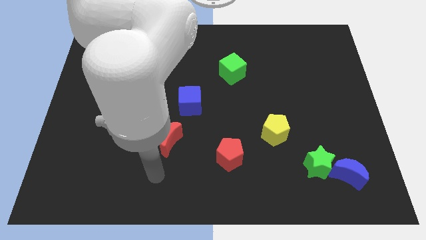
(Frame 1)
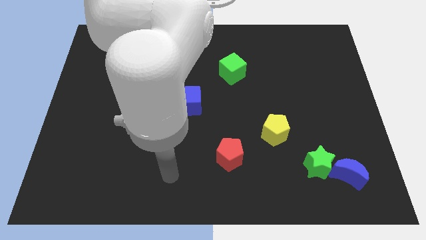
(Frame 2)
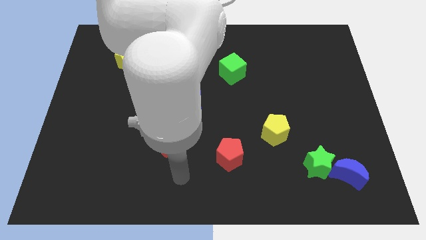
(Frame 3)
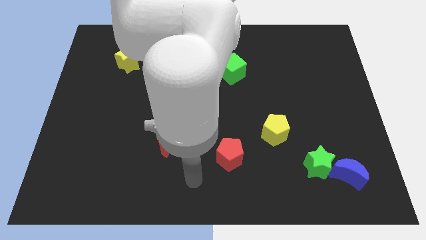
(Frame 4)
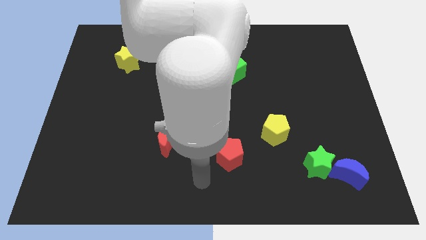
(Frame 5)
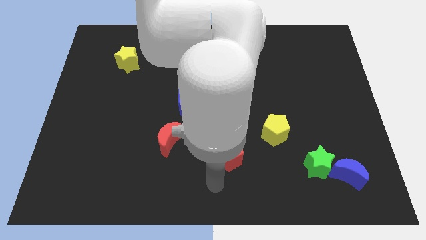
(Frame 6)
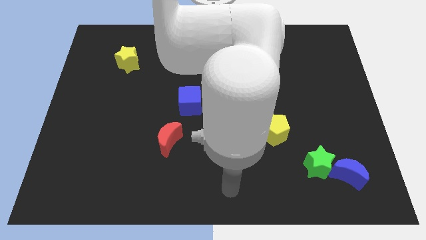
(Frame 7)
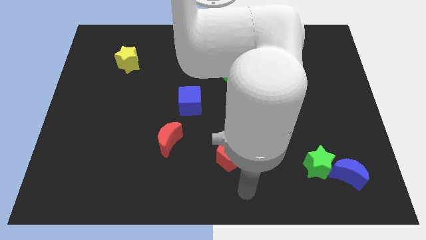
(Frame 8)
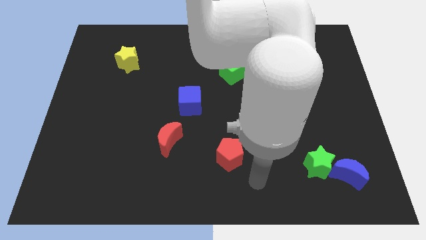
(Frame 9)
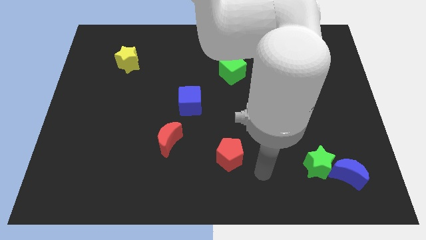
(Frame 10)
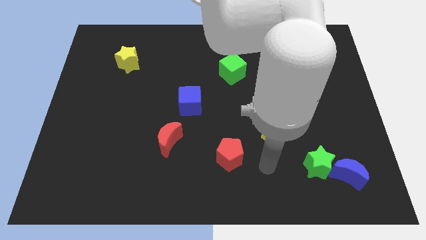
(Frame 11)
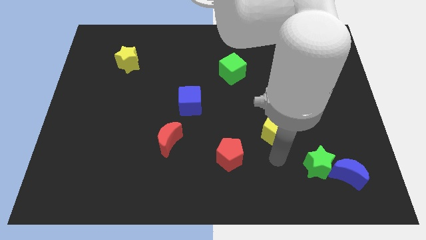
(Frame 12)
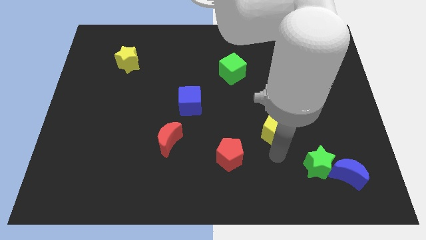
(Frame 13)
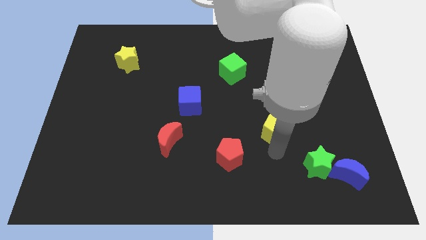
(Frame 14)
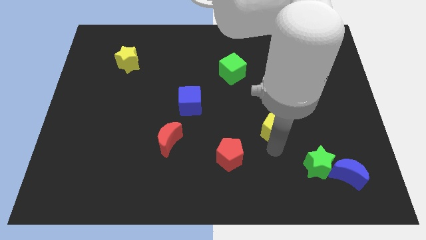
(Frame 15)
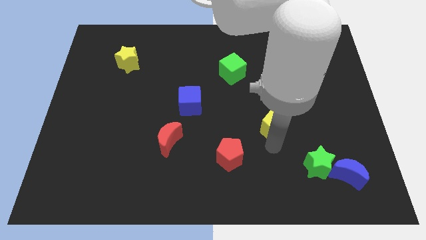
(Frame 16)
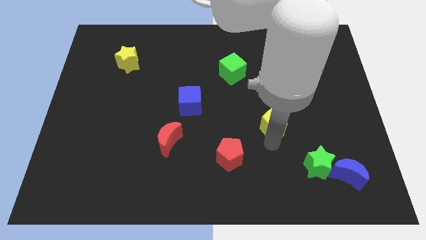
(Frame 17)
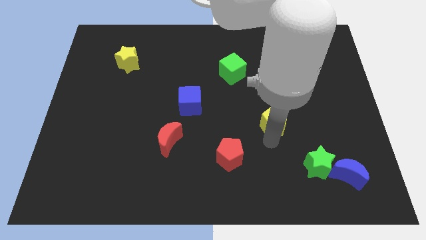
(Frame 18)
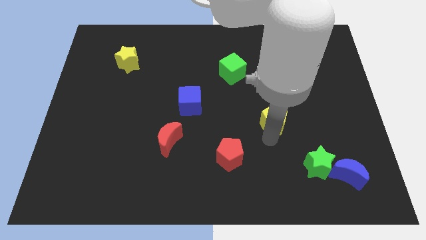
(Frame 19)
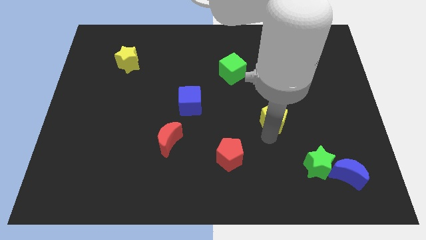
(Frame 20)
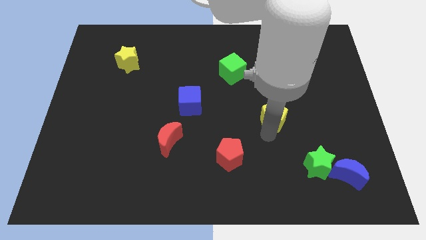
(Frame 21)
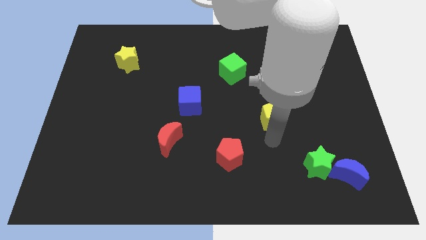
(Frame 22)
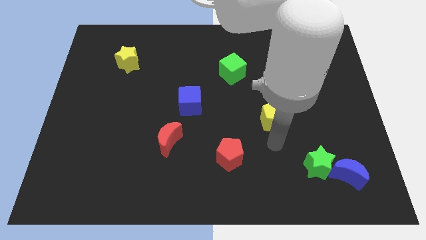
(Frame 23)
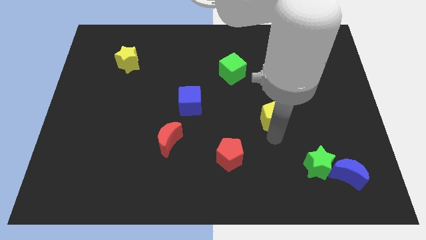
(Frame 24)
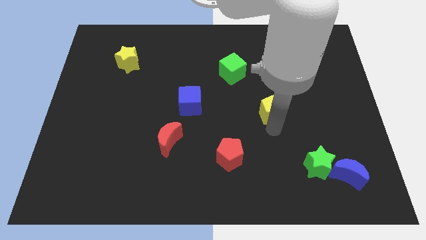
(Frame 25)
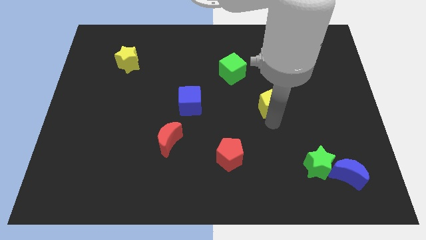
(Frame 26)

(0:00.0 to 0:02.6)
slightly push the yellow pentagon upwards

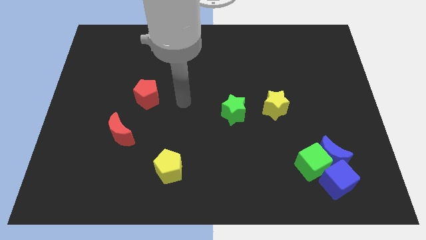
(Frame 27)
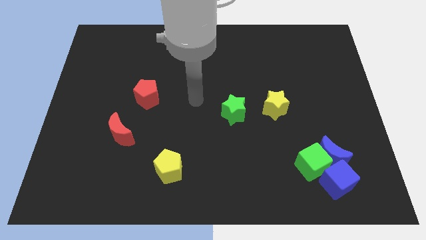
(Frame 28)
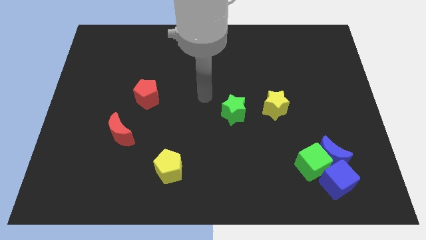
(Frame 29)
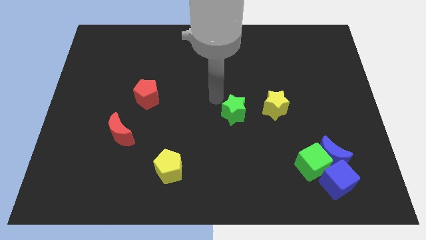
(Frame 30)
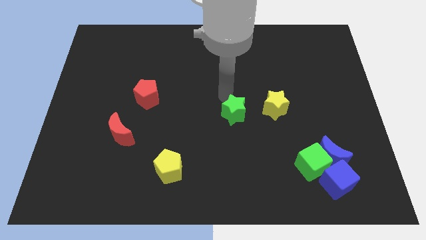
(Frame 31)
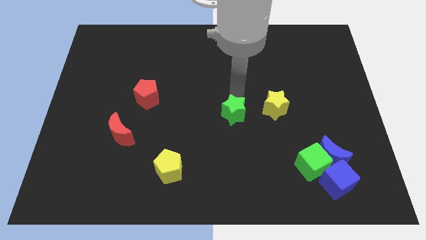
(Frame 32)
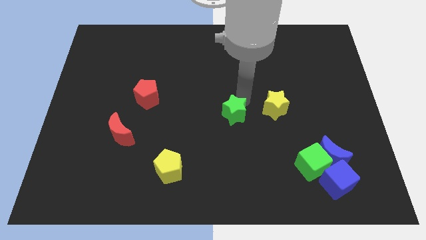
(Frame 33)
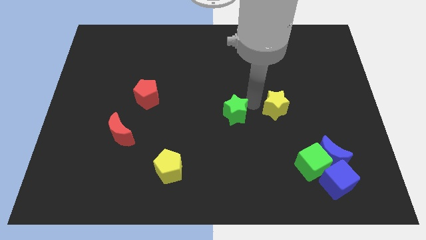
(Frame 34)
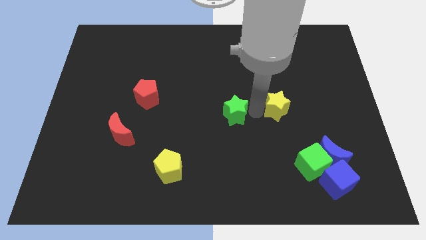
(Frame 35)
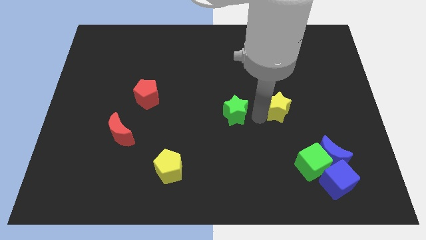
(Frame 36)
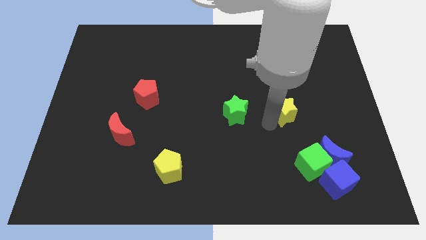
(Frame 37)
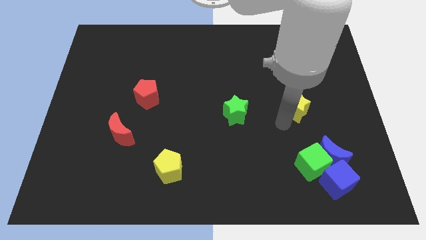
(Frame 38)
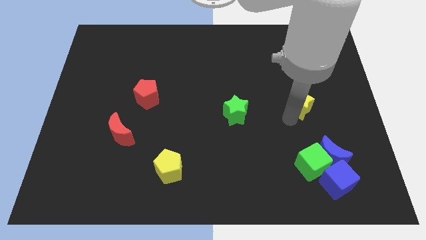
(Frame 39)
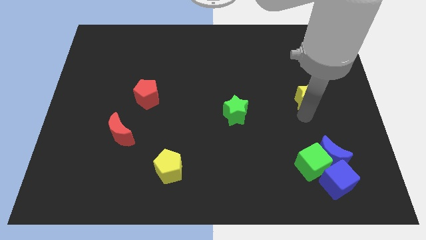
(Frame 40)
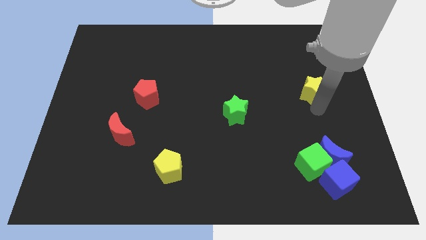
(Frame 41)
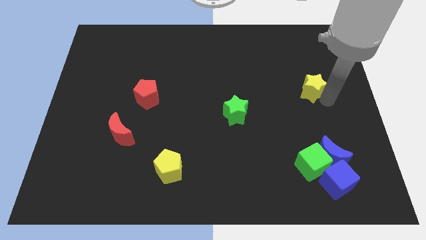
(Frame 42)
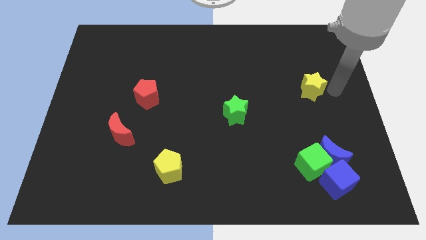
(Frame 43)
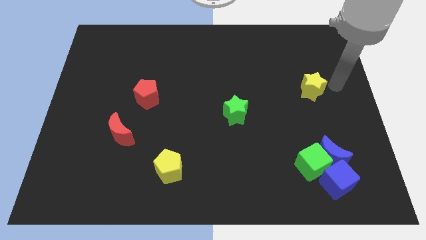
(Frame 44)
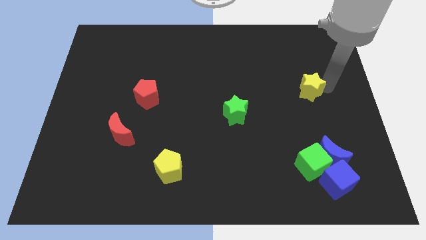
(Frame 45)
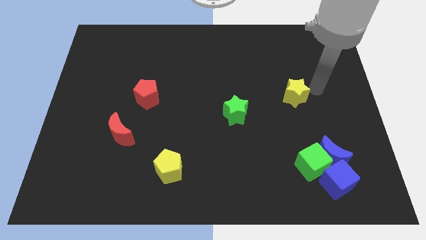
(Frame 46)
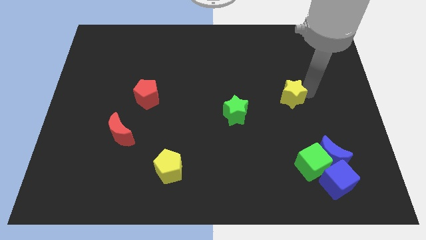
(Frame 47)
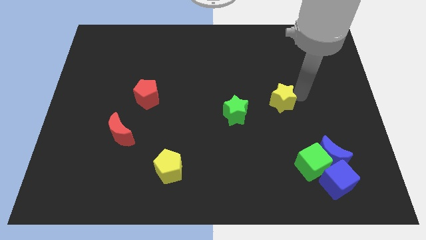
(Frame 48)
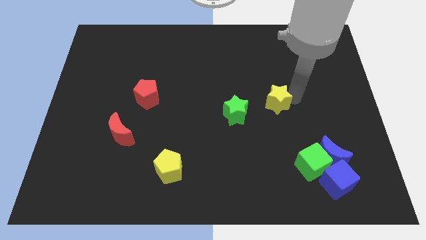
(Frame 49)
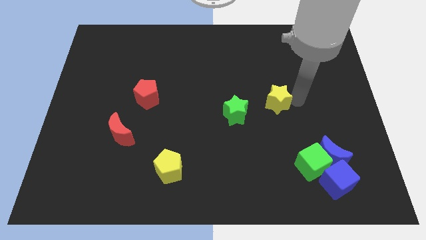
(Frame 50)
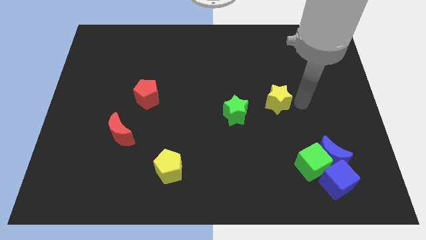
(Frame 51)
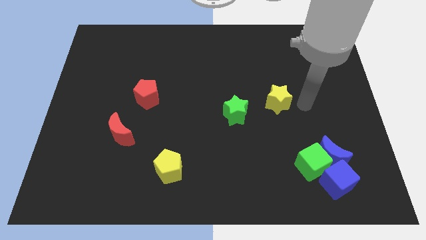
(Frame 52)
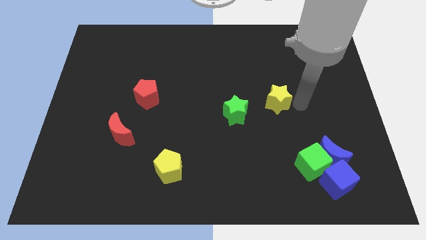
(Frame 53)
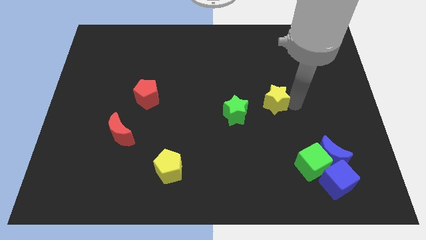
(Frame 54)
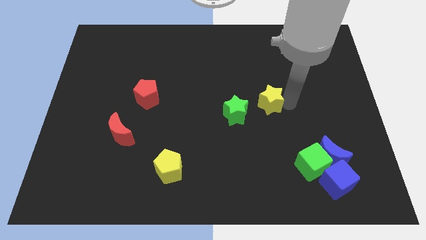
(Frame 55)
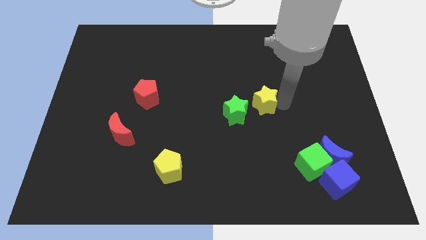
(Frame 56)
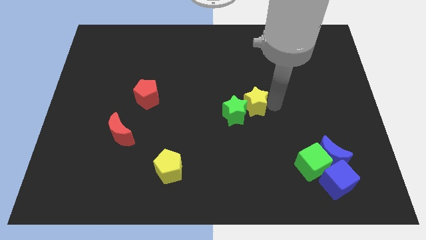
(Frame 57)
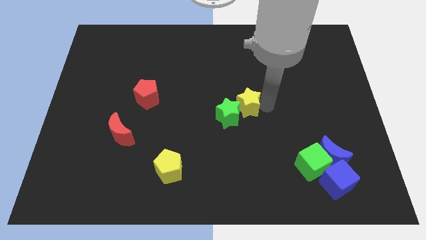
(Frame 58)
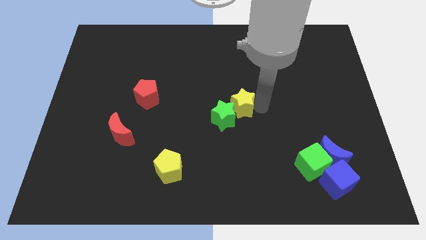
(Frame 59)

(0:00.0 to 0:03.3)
move the yellow star left a little bit

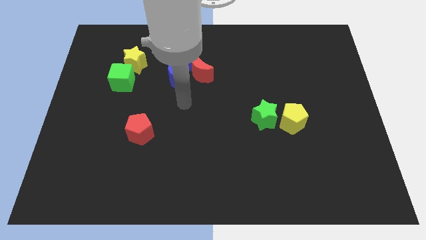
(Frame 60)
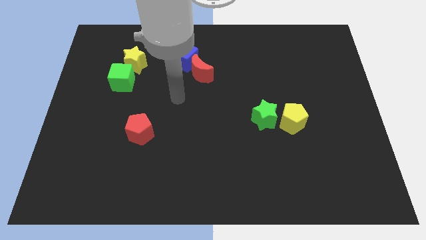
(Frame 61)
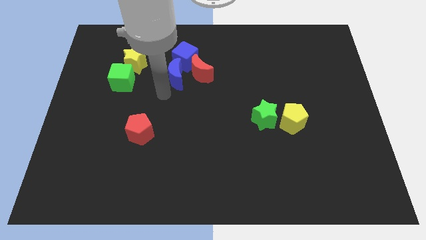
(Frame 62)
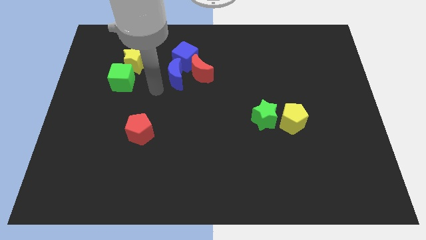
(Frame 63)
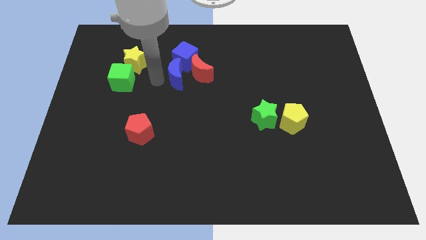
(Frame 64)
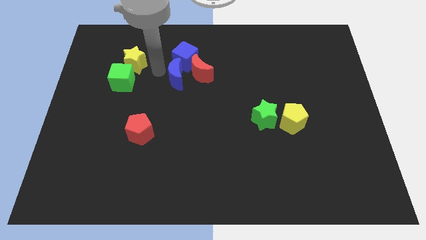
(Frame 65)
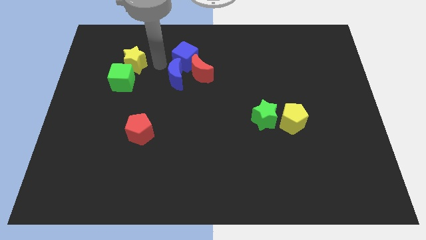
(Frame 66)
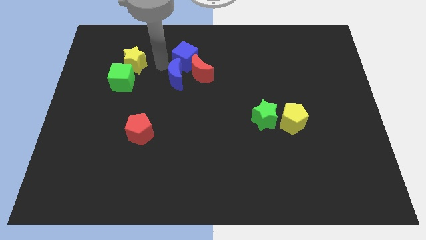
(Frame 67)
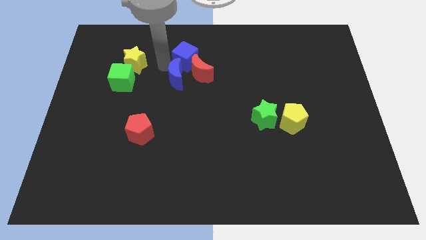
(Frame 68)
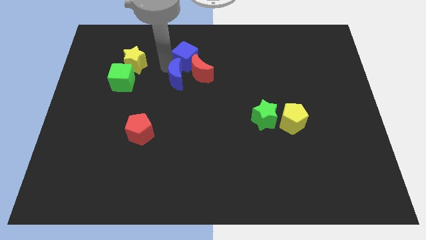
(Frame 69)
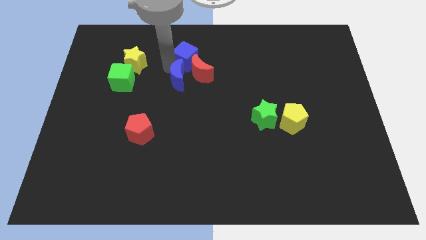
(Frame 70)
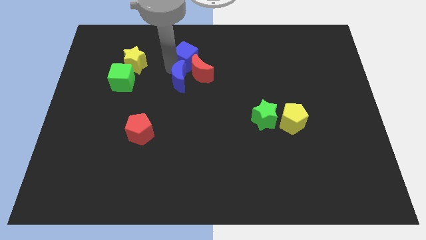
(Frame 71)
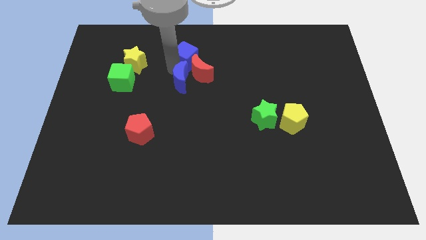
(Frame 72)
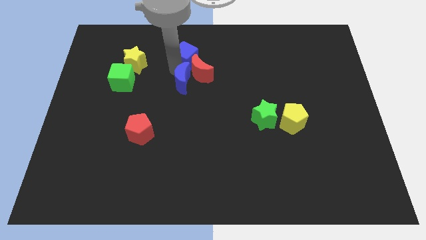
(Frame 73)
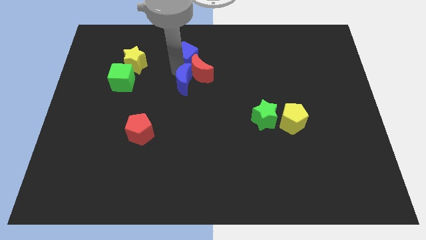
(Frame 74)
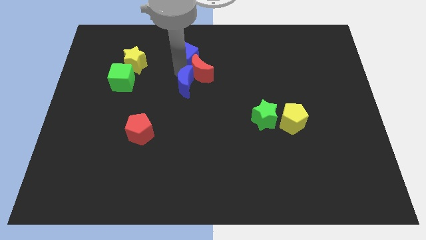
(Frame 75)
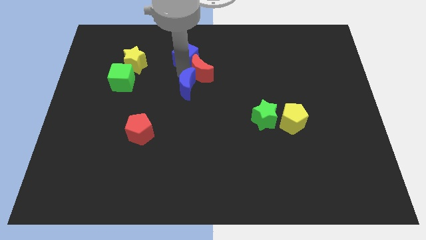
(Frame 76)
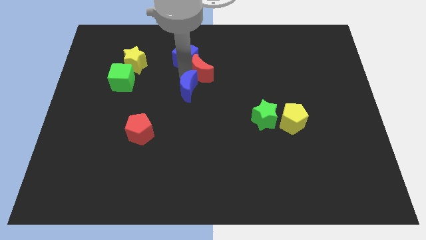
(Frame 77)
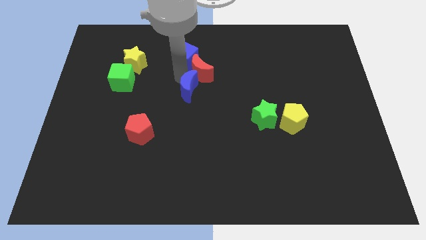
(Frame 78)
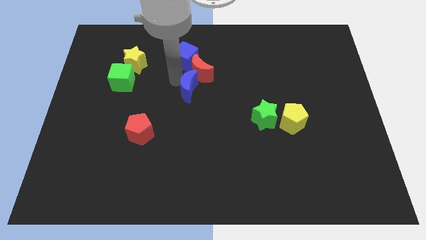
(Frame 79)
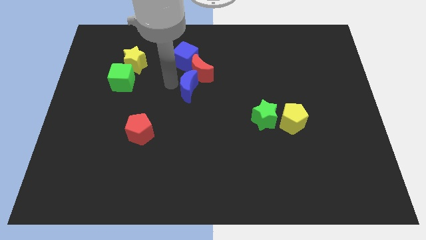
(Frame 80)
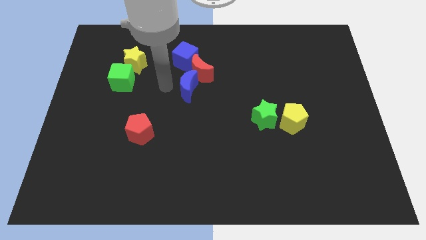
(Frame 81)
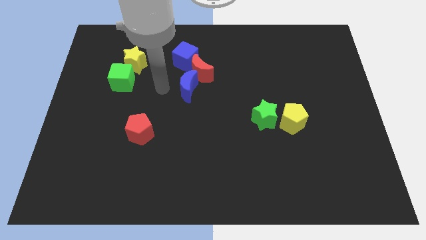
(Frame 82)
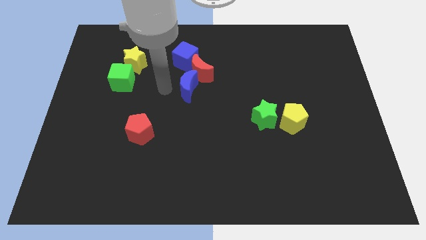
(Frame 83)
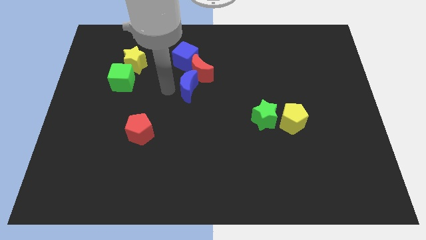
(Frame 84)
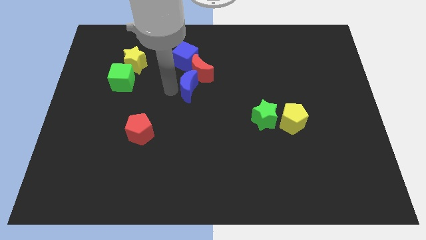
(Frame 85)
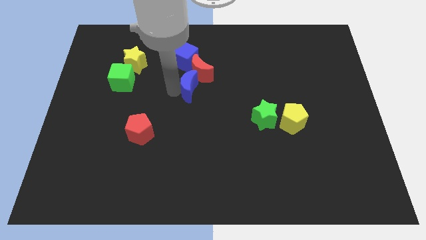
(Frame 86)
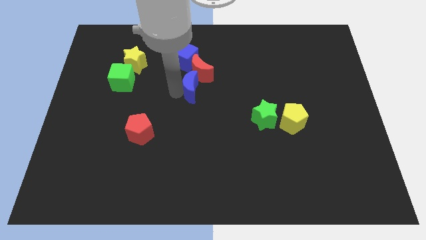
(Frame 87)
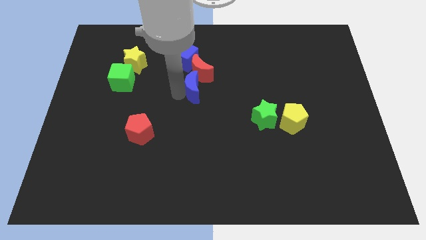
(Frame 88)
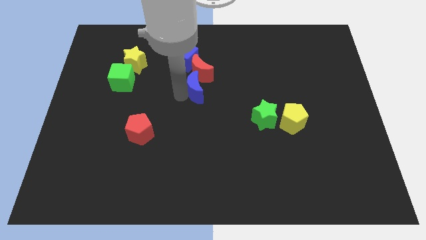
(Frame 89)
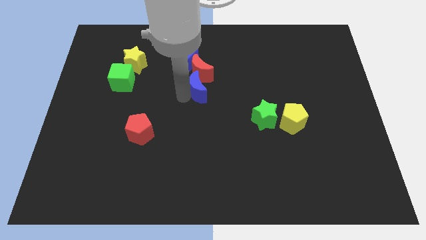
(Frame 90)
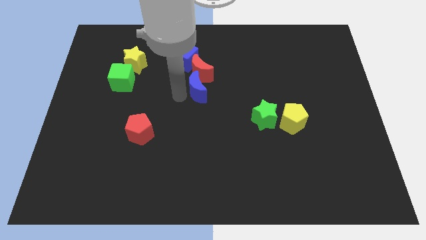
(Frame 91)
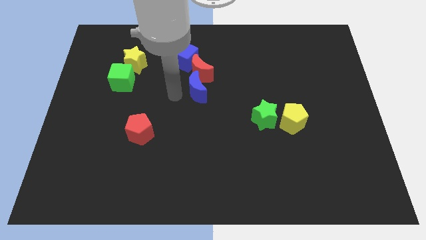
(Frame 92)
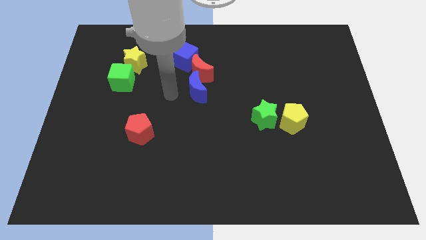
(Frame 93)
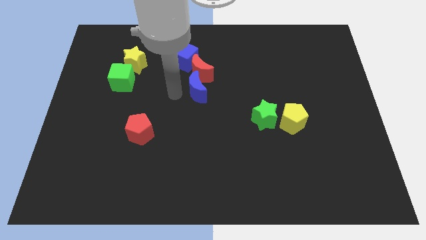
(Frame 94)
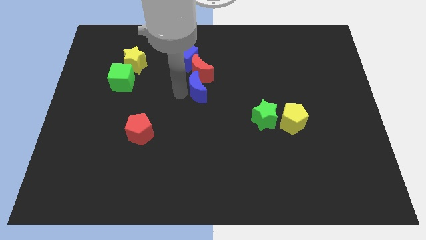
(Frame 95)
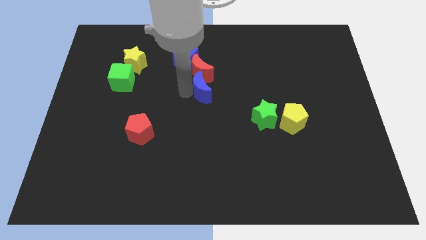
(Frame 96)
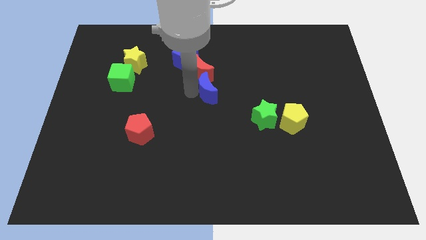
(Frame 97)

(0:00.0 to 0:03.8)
slightly move the blue moon to the right
